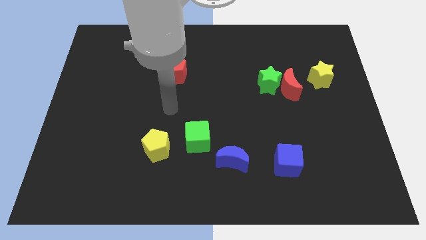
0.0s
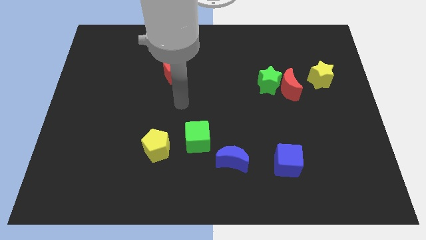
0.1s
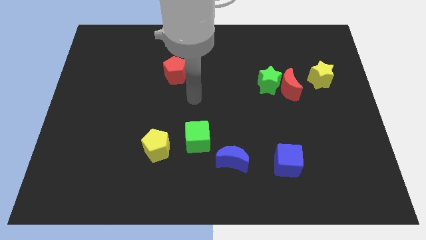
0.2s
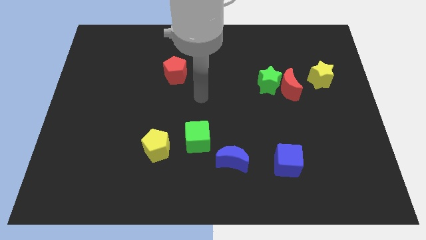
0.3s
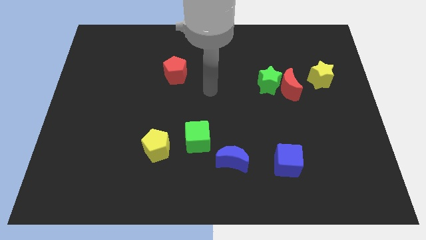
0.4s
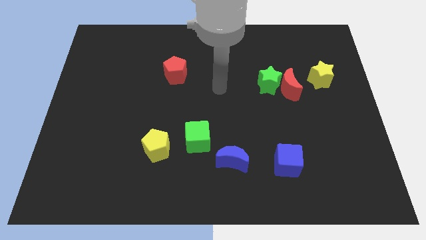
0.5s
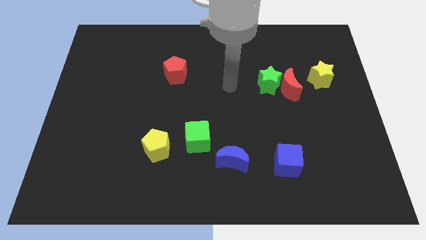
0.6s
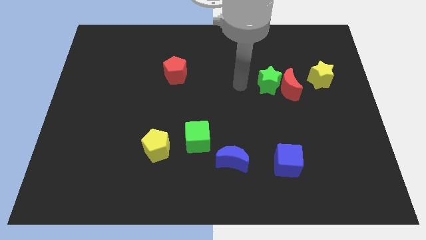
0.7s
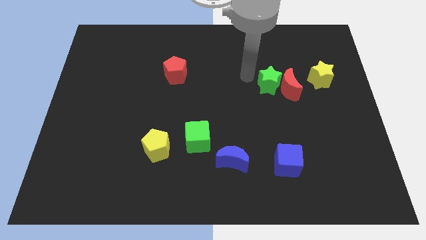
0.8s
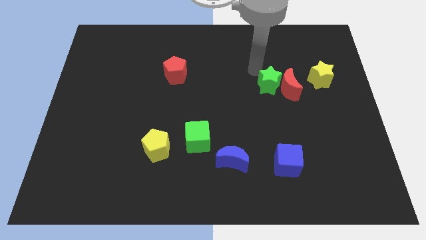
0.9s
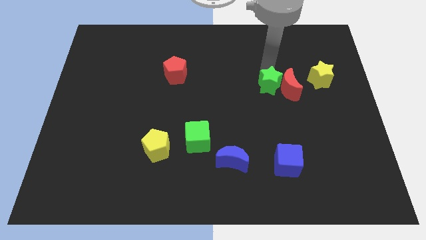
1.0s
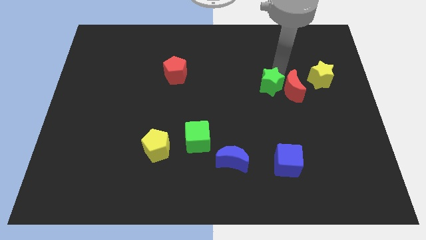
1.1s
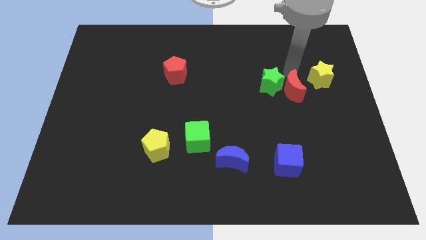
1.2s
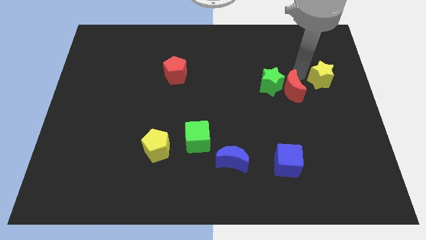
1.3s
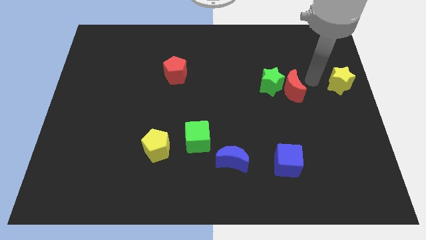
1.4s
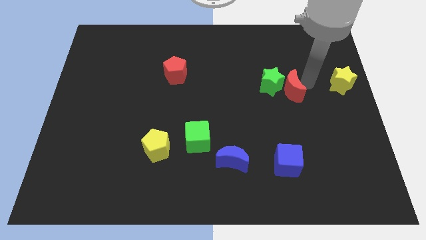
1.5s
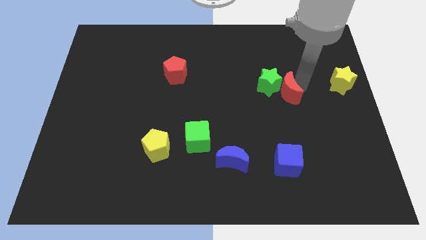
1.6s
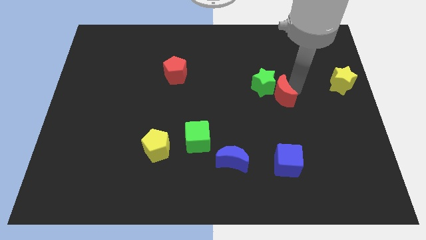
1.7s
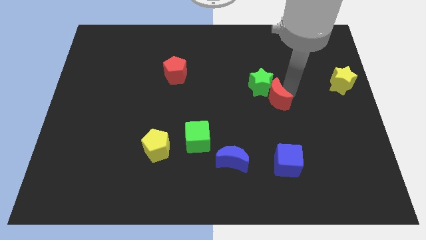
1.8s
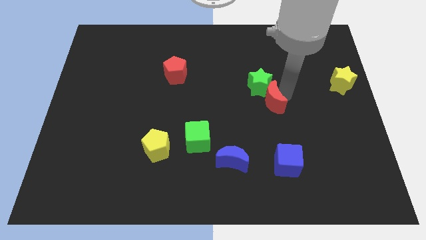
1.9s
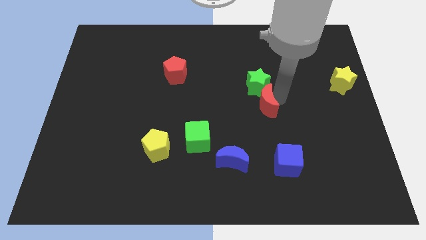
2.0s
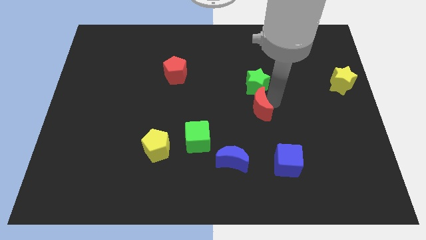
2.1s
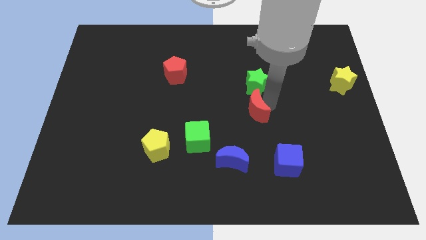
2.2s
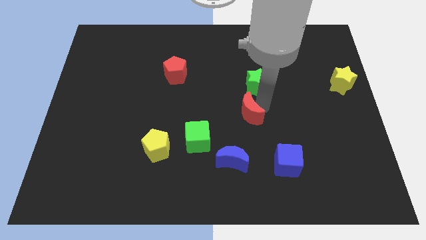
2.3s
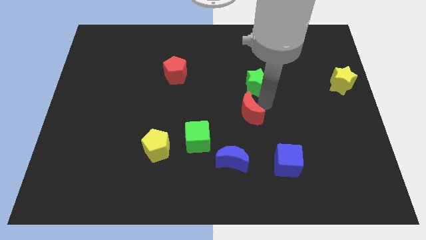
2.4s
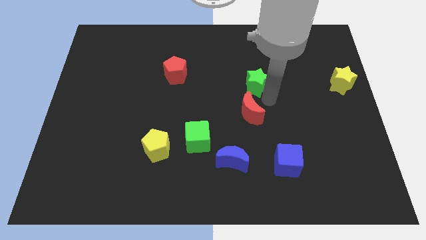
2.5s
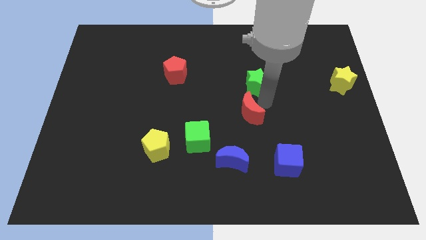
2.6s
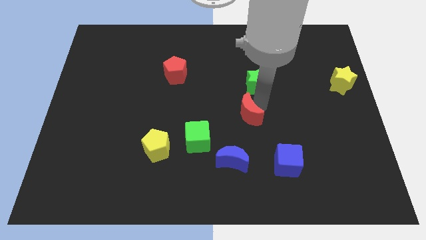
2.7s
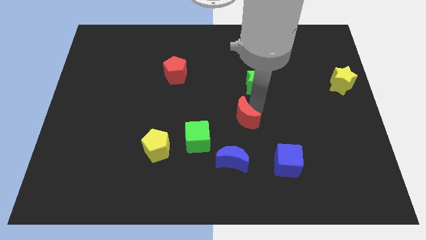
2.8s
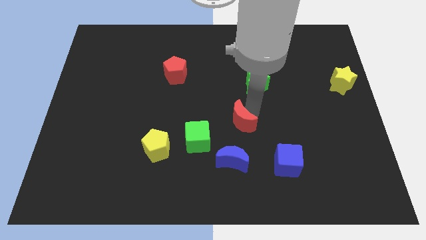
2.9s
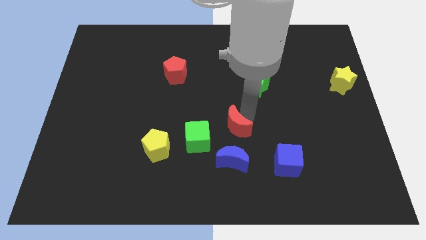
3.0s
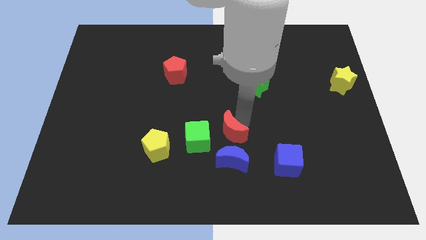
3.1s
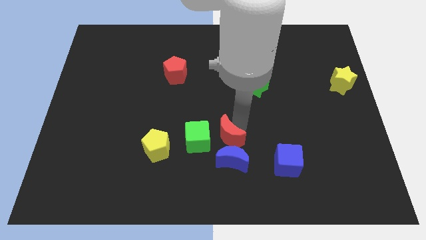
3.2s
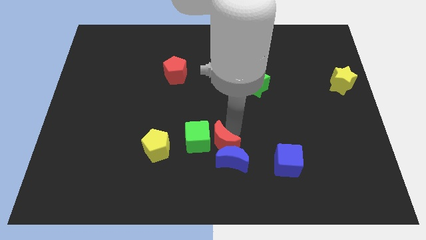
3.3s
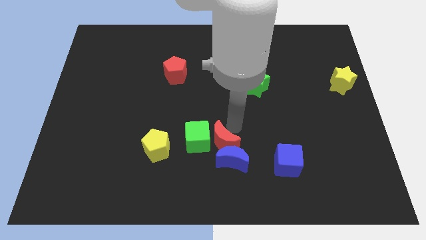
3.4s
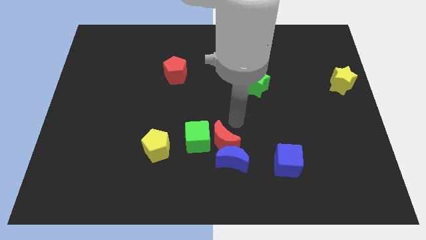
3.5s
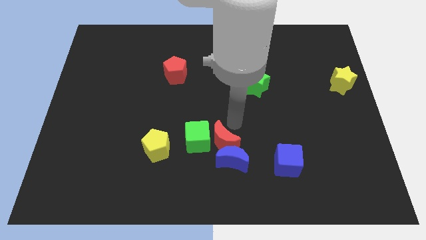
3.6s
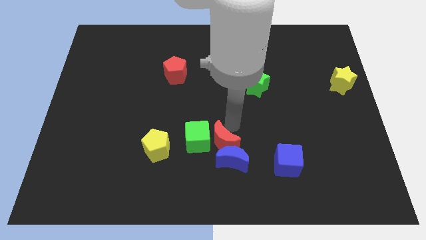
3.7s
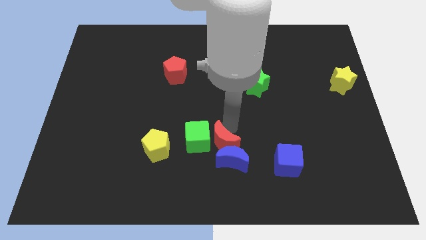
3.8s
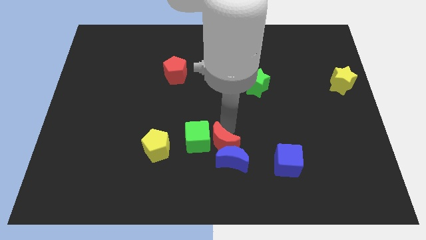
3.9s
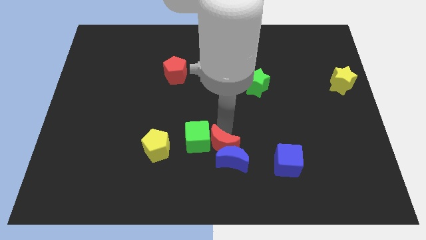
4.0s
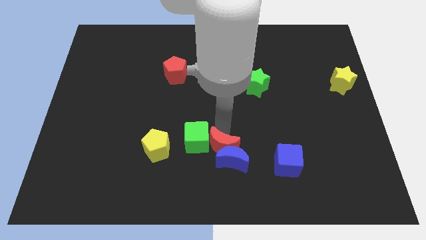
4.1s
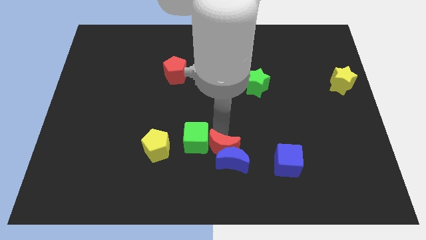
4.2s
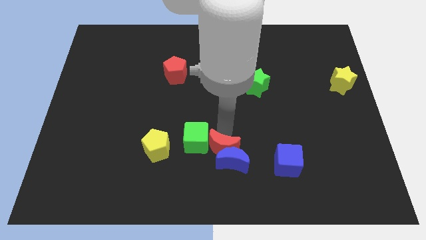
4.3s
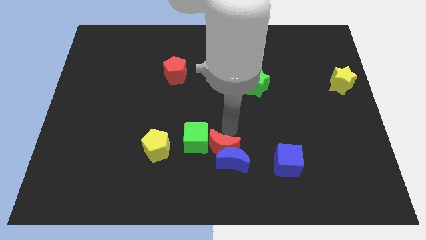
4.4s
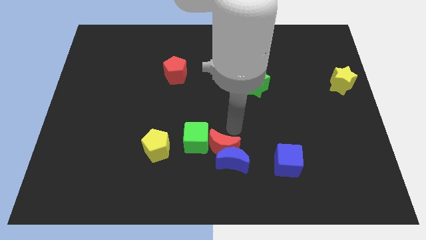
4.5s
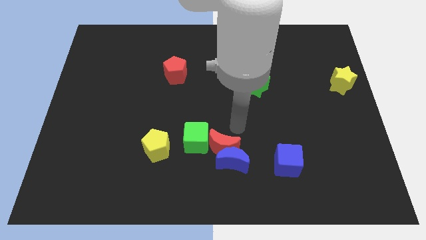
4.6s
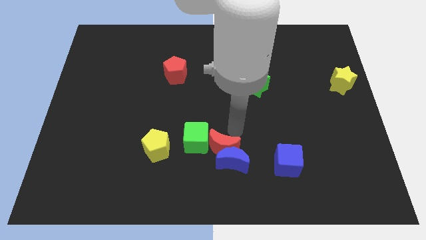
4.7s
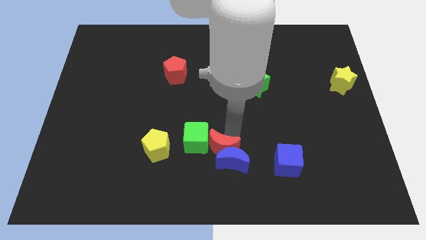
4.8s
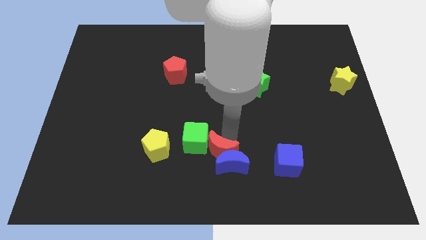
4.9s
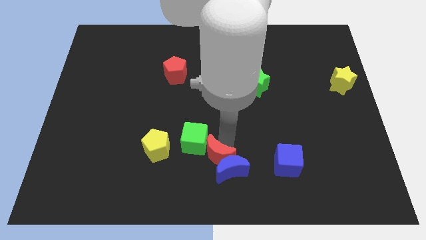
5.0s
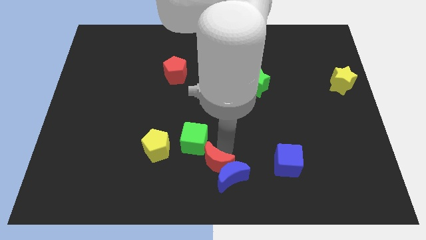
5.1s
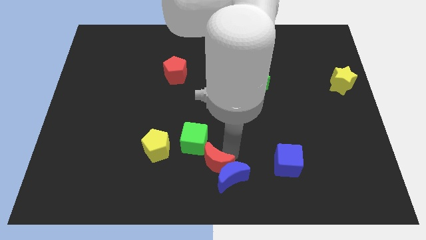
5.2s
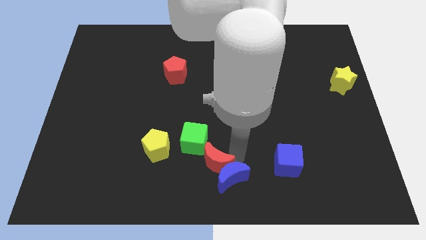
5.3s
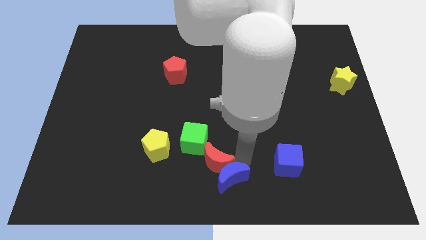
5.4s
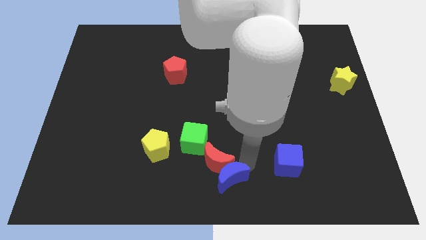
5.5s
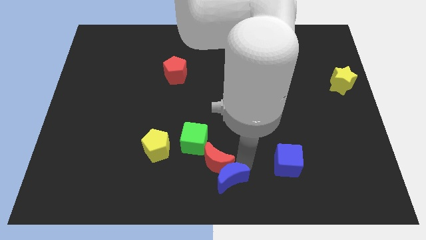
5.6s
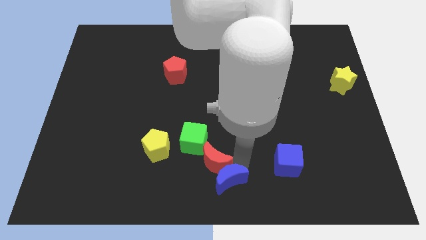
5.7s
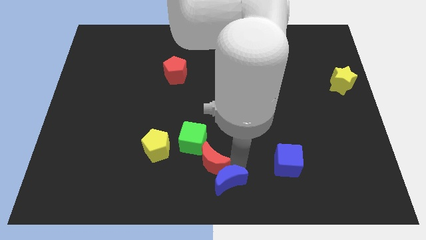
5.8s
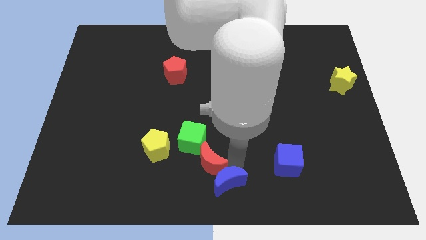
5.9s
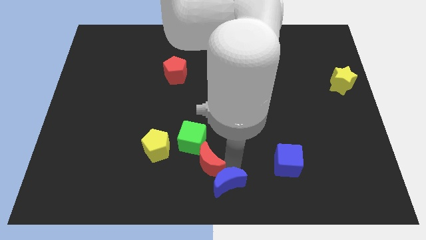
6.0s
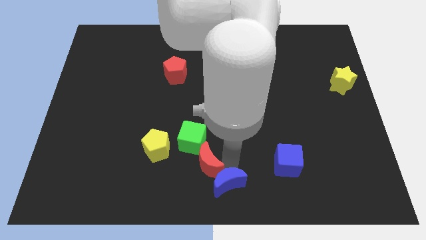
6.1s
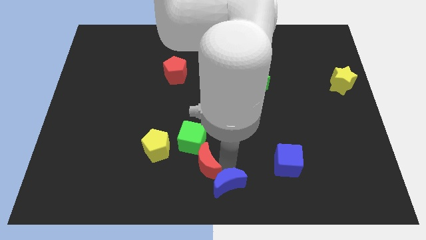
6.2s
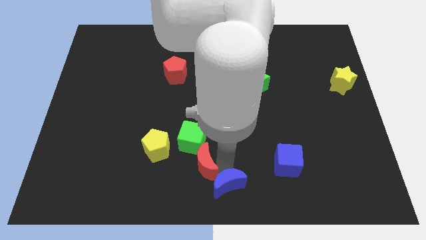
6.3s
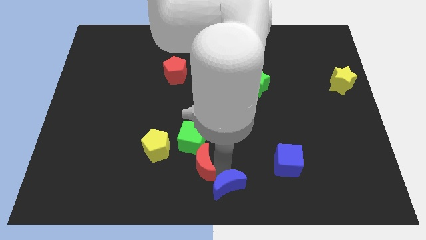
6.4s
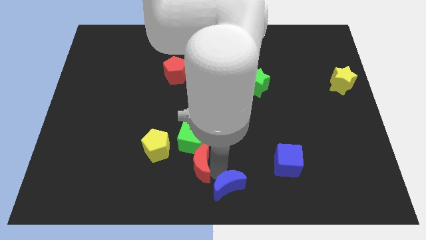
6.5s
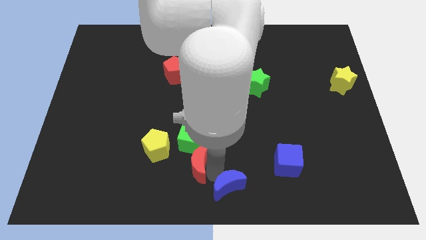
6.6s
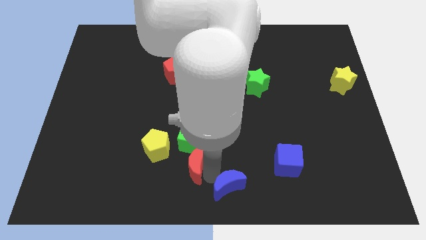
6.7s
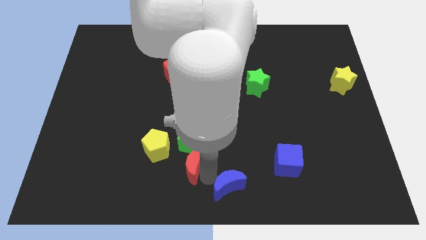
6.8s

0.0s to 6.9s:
slide the red moon to the bottom left side of the green cube

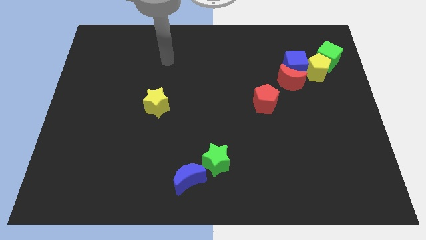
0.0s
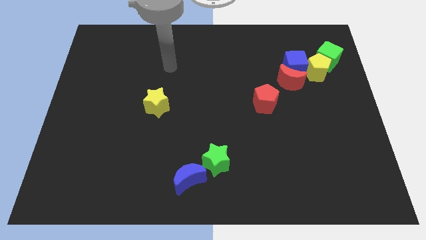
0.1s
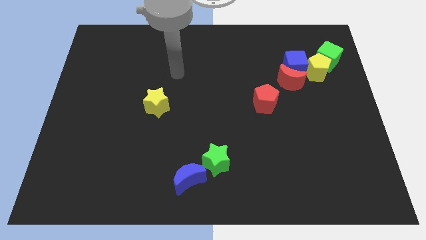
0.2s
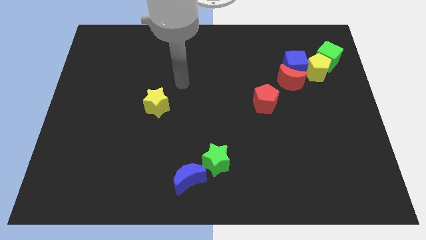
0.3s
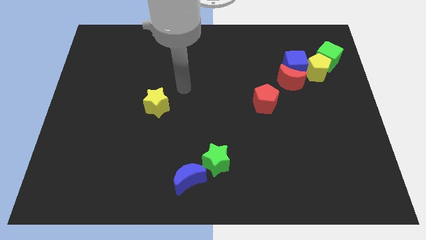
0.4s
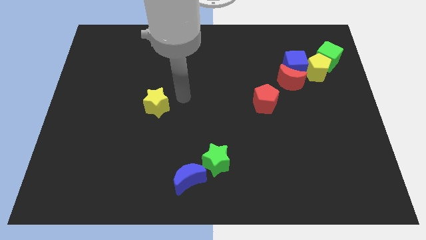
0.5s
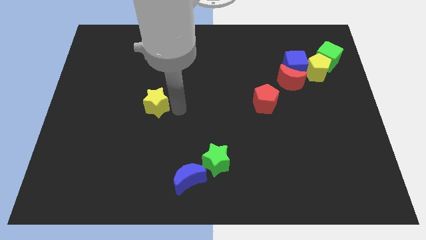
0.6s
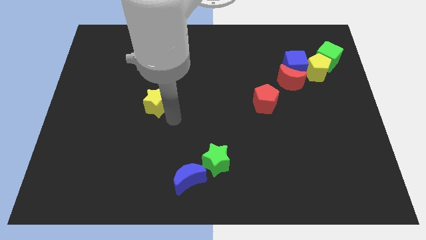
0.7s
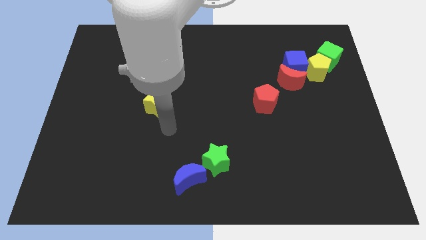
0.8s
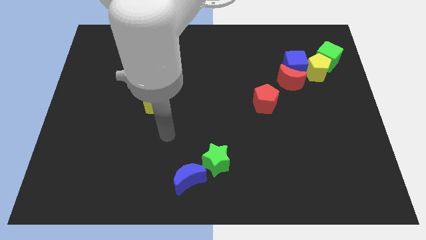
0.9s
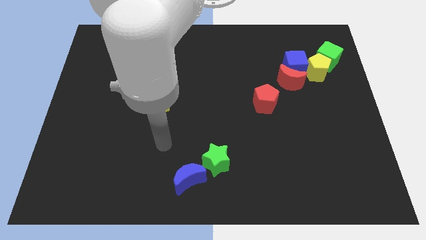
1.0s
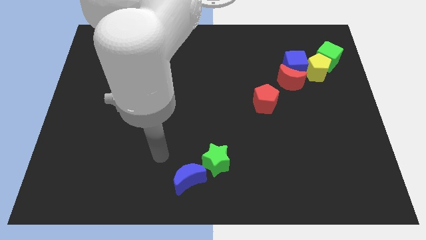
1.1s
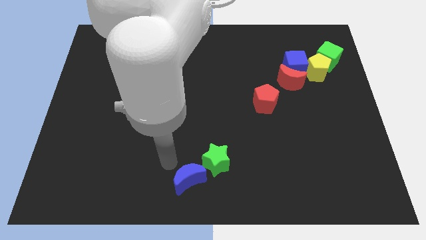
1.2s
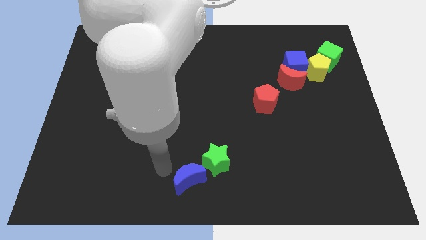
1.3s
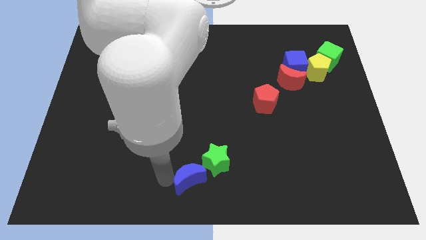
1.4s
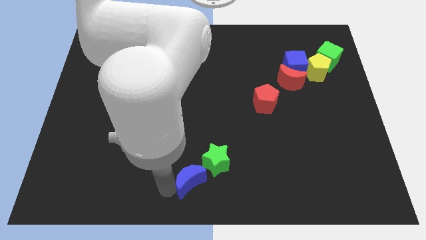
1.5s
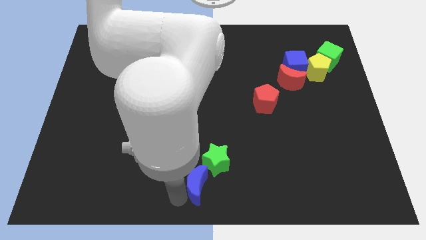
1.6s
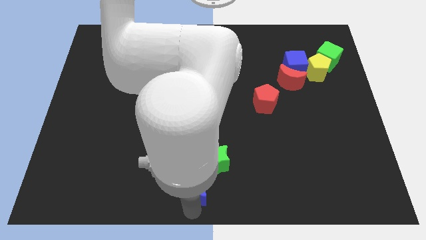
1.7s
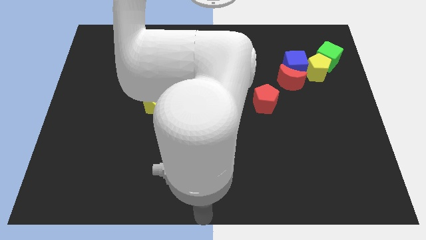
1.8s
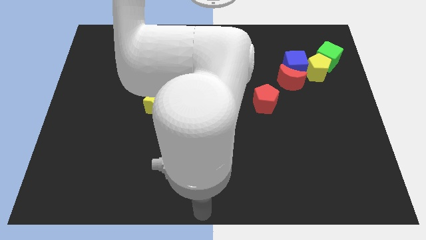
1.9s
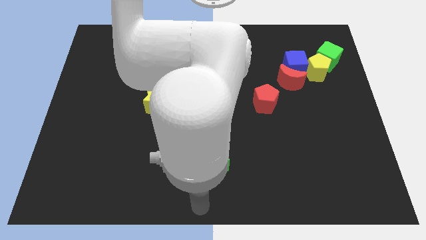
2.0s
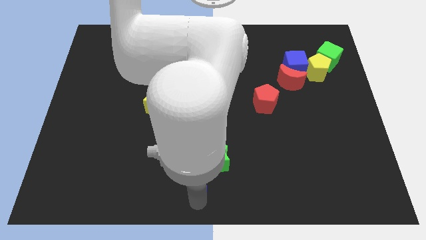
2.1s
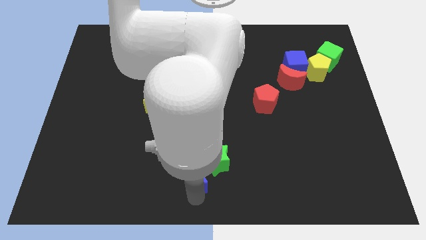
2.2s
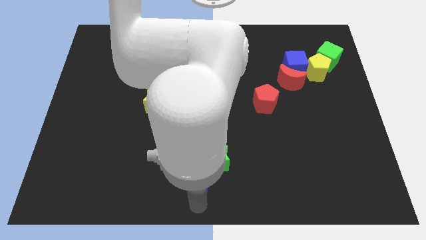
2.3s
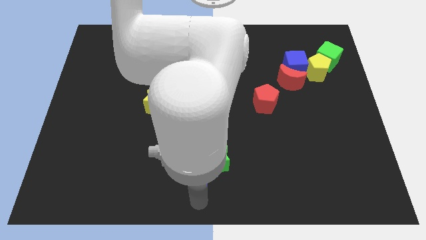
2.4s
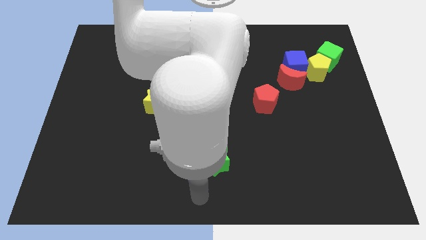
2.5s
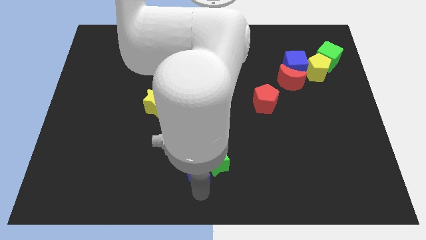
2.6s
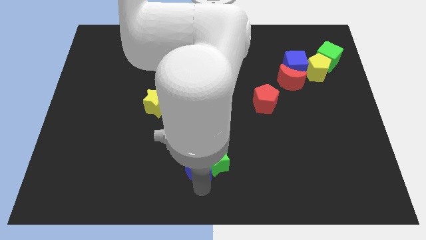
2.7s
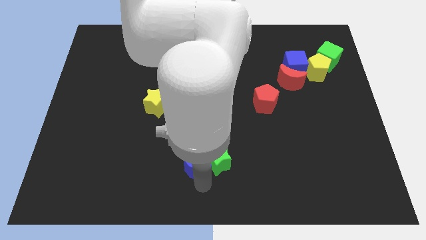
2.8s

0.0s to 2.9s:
slide the blue moon to the top left side of the green star
